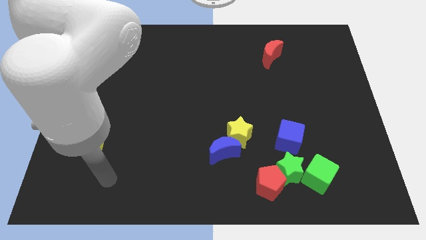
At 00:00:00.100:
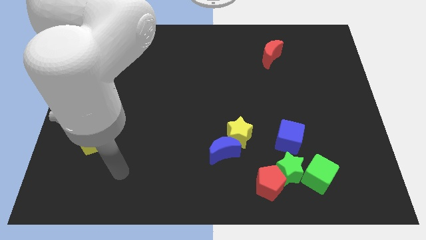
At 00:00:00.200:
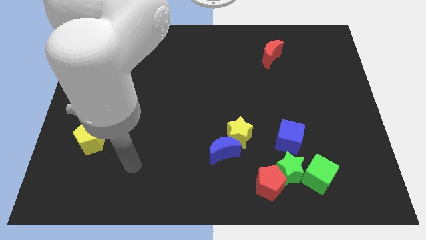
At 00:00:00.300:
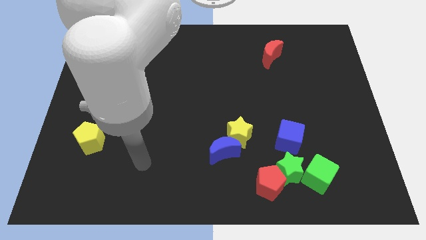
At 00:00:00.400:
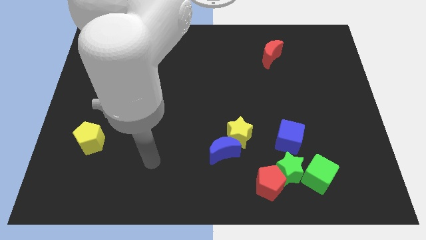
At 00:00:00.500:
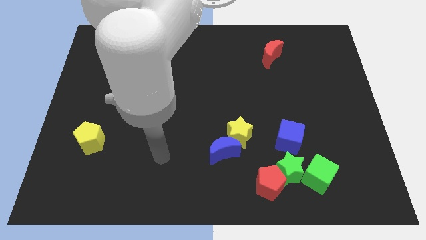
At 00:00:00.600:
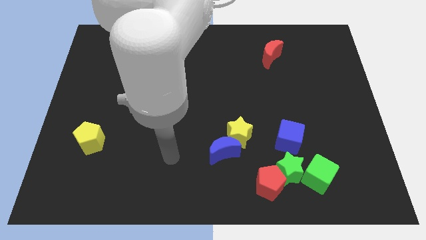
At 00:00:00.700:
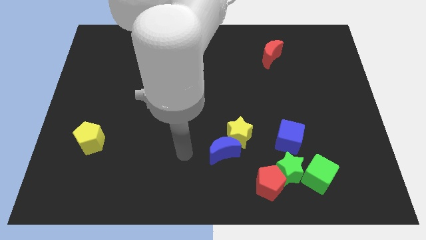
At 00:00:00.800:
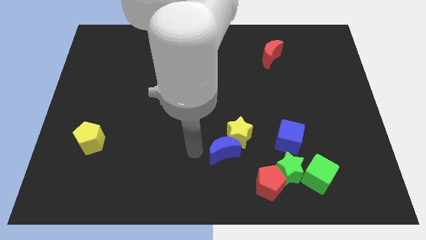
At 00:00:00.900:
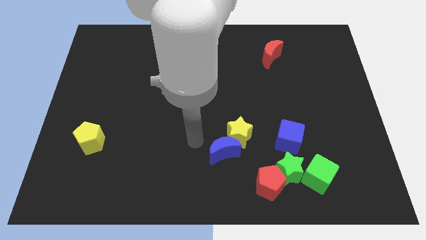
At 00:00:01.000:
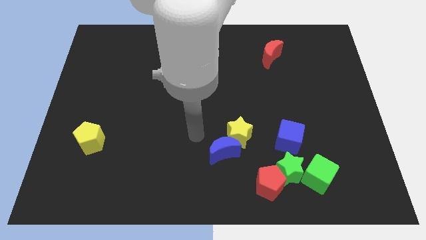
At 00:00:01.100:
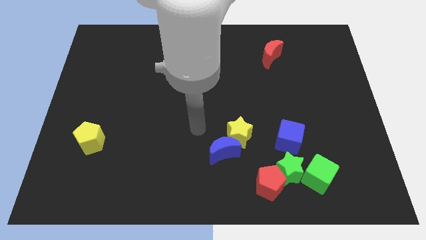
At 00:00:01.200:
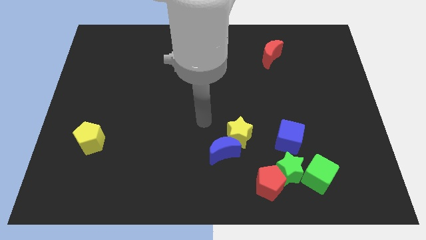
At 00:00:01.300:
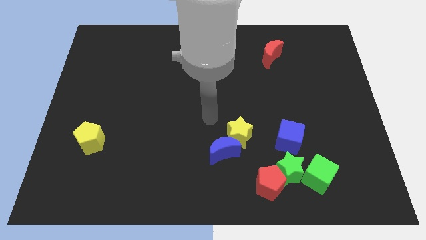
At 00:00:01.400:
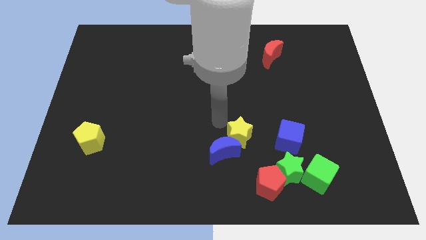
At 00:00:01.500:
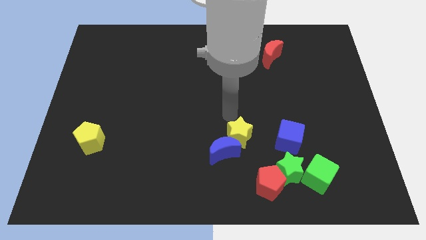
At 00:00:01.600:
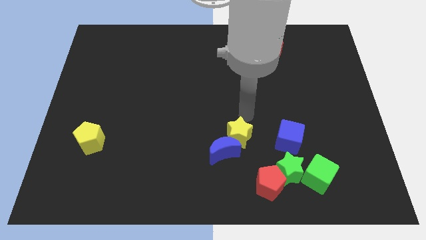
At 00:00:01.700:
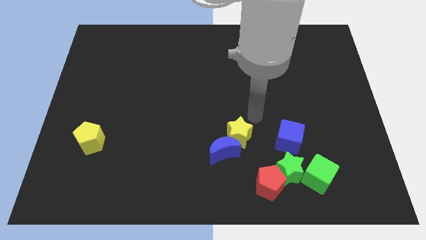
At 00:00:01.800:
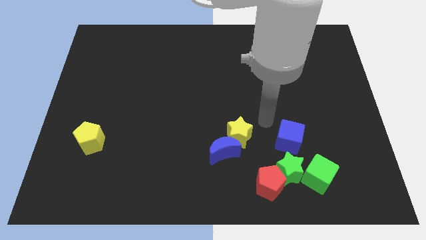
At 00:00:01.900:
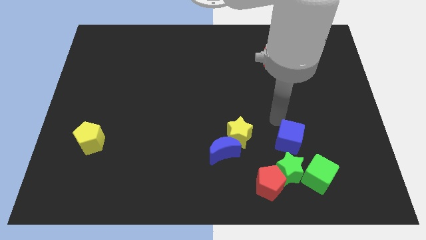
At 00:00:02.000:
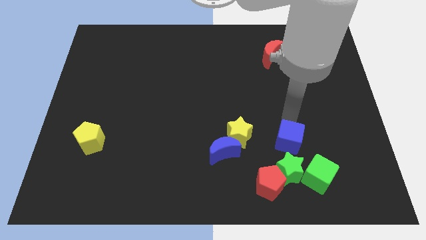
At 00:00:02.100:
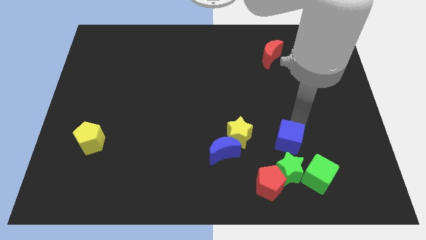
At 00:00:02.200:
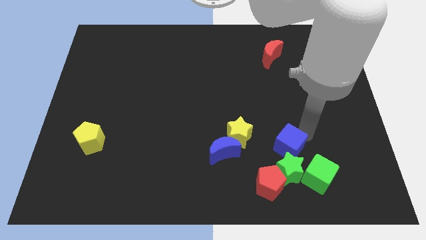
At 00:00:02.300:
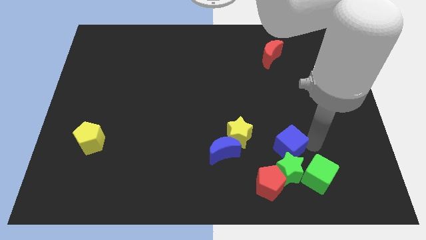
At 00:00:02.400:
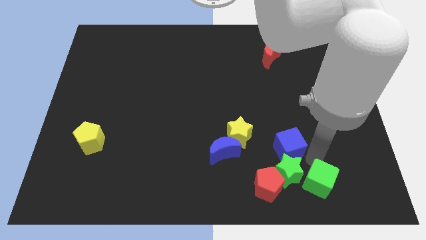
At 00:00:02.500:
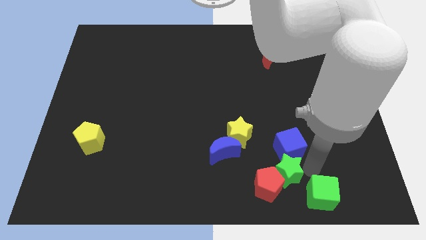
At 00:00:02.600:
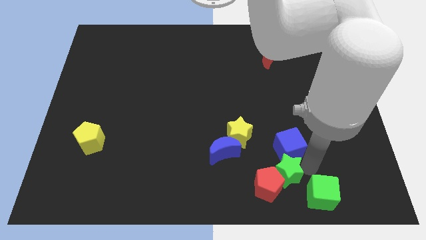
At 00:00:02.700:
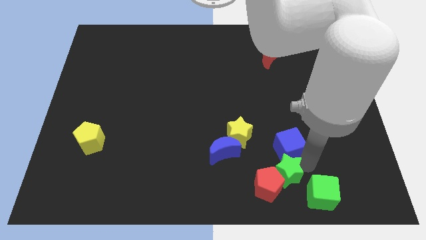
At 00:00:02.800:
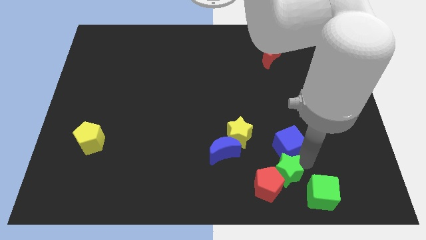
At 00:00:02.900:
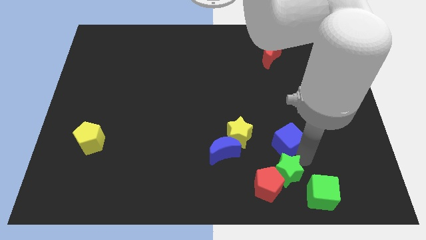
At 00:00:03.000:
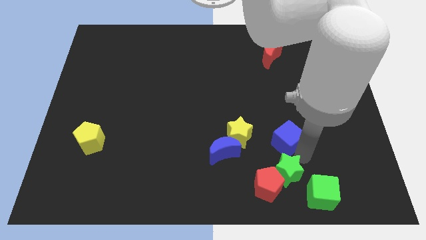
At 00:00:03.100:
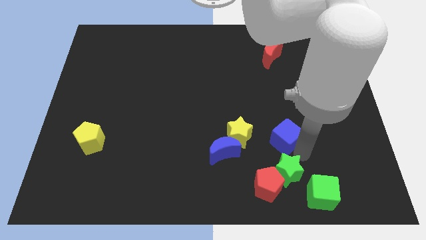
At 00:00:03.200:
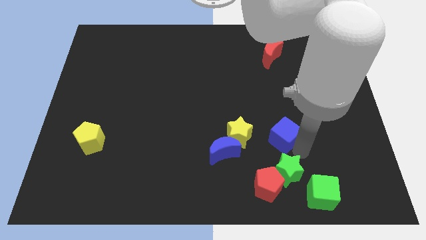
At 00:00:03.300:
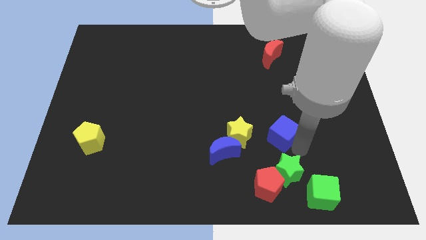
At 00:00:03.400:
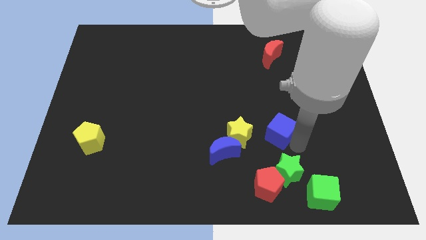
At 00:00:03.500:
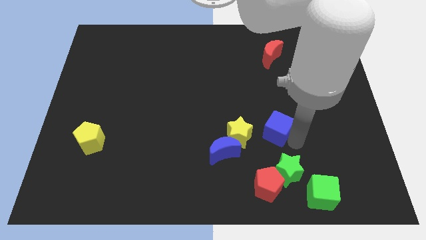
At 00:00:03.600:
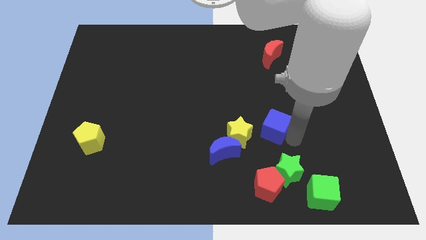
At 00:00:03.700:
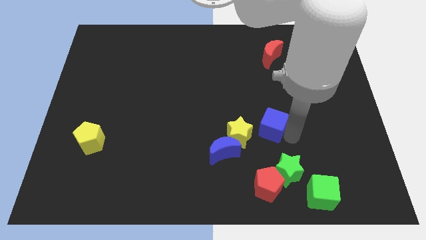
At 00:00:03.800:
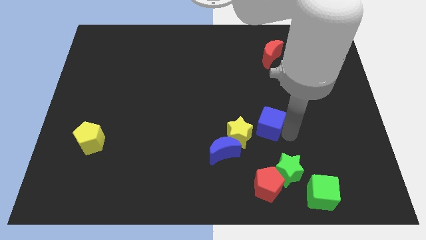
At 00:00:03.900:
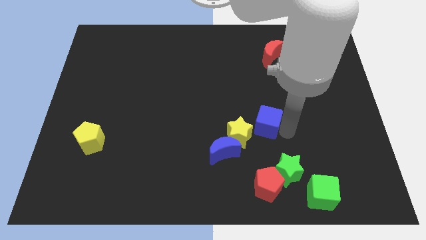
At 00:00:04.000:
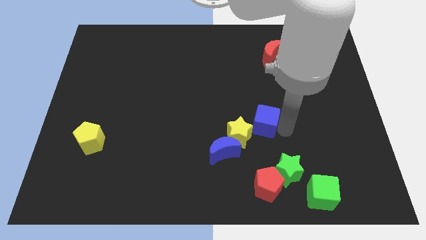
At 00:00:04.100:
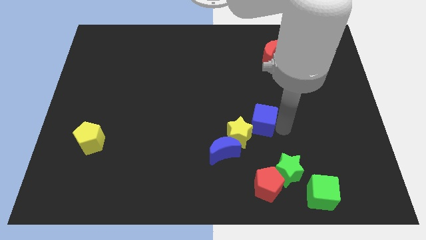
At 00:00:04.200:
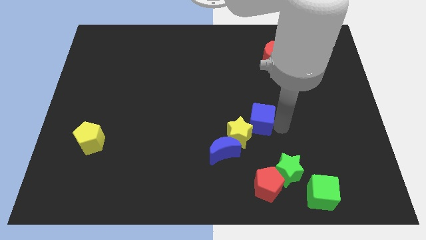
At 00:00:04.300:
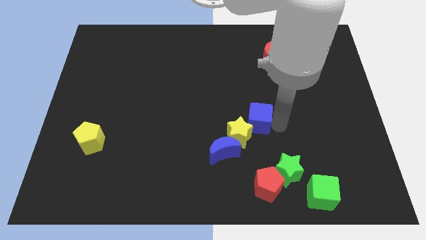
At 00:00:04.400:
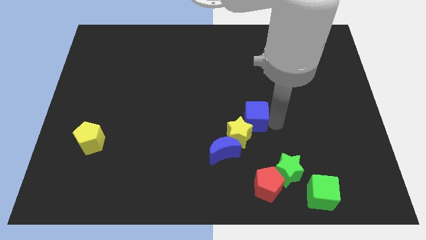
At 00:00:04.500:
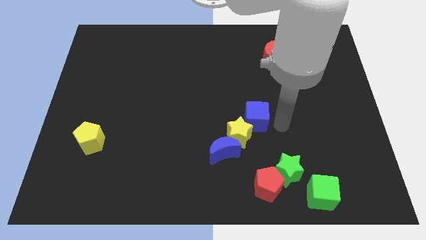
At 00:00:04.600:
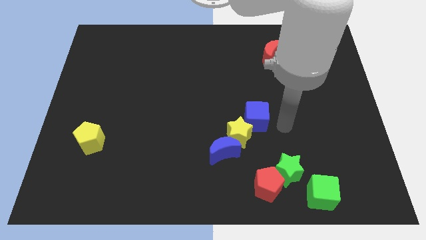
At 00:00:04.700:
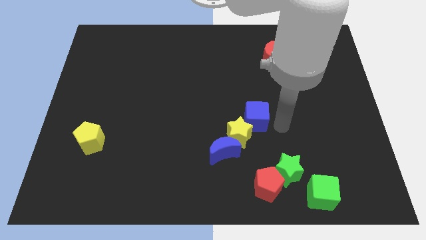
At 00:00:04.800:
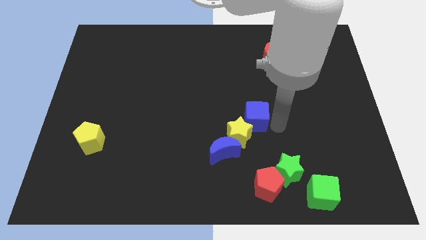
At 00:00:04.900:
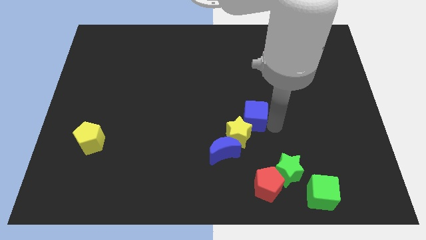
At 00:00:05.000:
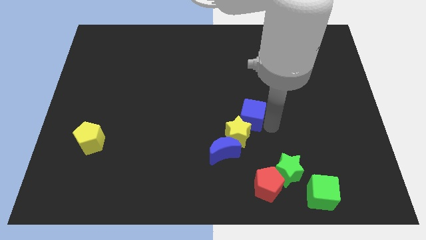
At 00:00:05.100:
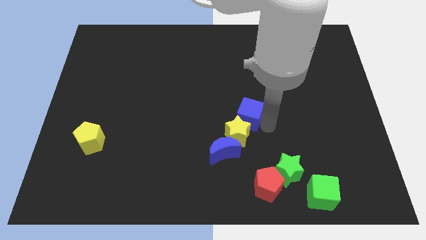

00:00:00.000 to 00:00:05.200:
slide the blue cube left a little bit

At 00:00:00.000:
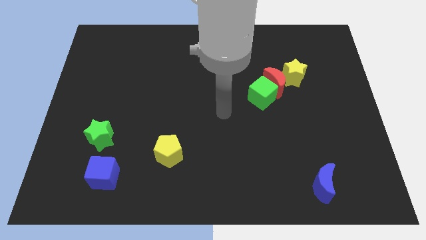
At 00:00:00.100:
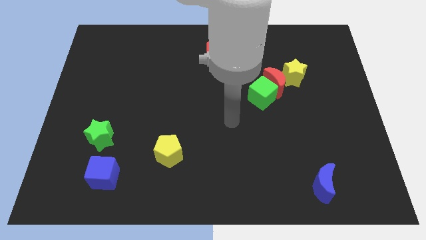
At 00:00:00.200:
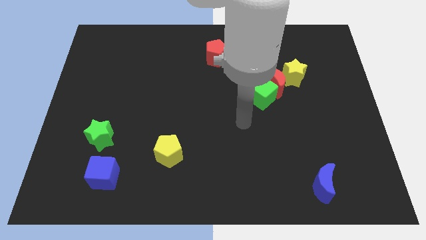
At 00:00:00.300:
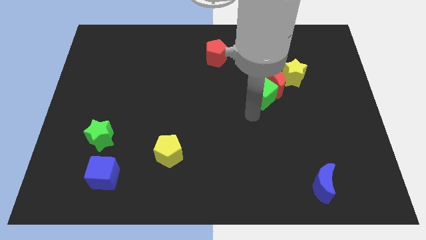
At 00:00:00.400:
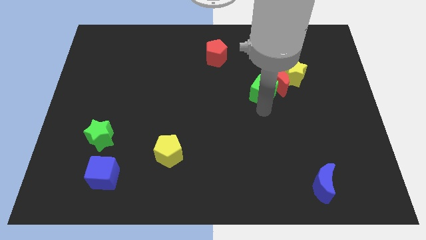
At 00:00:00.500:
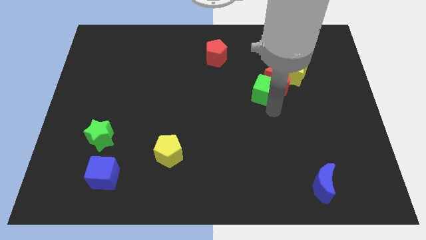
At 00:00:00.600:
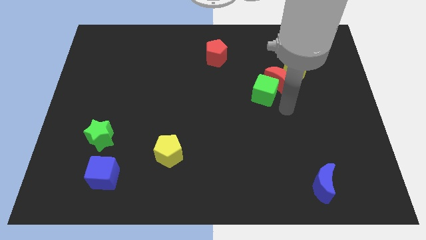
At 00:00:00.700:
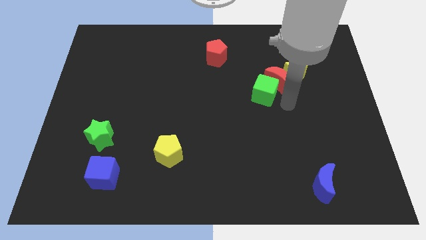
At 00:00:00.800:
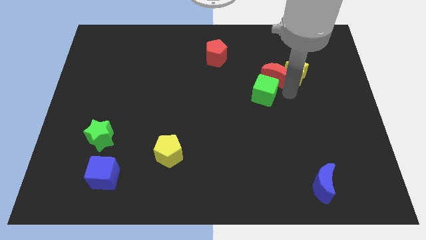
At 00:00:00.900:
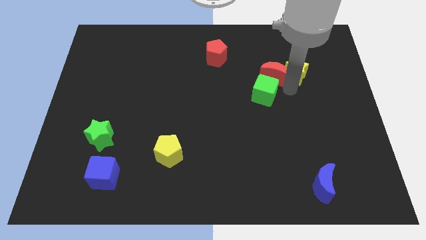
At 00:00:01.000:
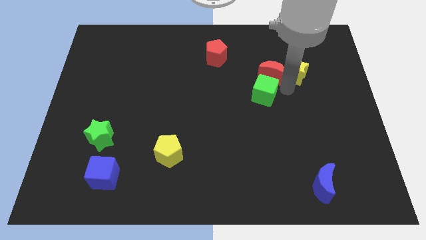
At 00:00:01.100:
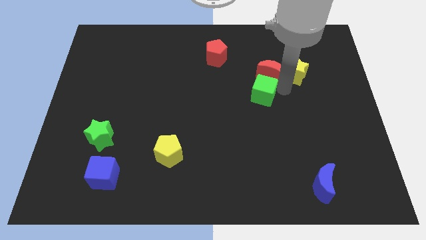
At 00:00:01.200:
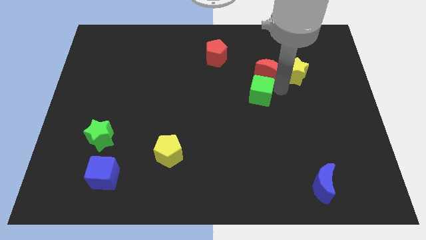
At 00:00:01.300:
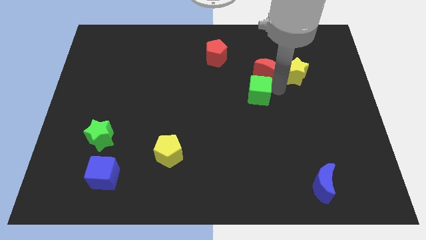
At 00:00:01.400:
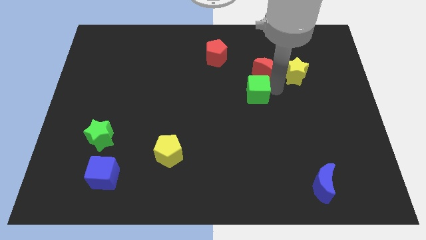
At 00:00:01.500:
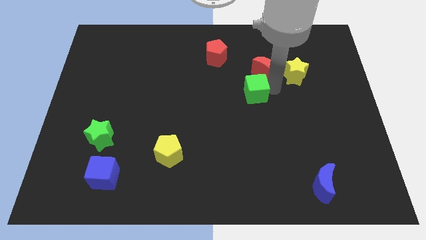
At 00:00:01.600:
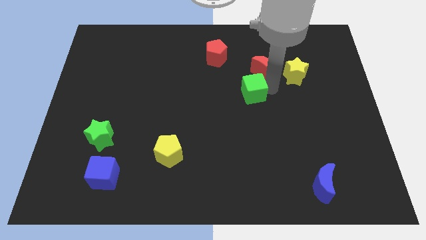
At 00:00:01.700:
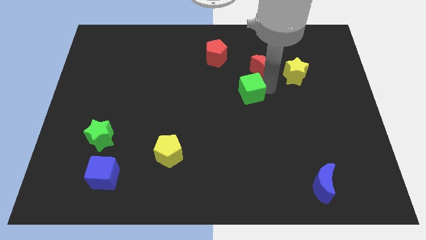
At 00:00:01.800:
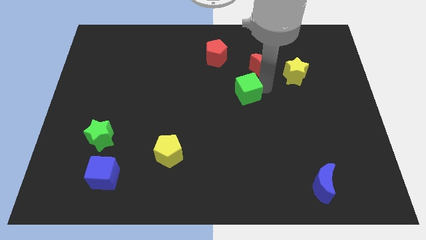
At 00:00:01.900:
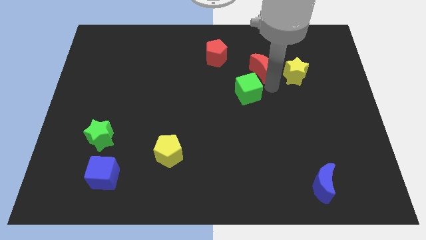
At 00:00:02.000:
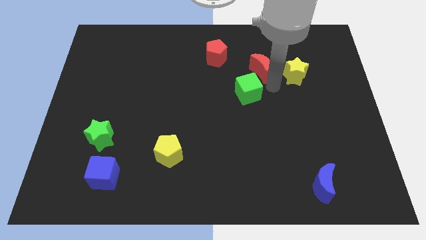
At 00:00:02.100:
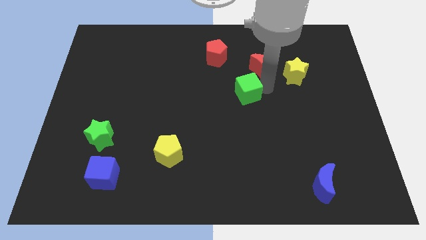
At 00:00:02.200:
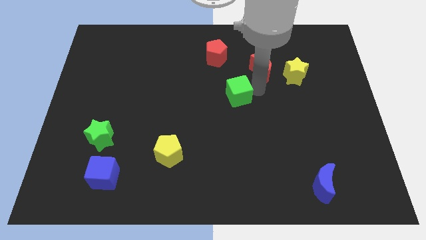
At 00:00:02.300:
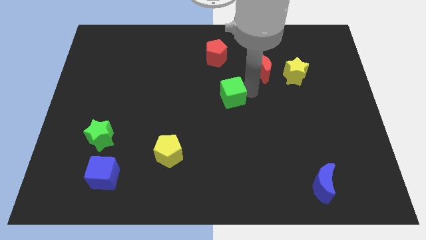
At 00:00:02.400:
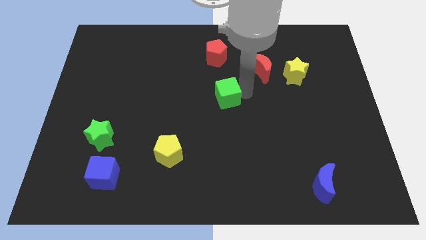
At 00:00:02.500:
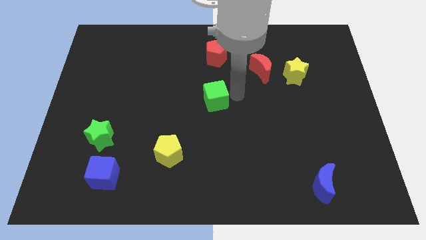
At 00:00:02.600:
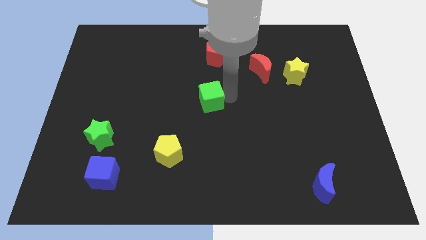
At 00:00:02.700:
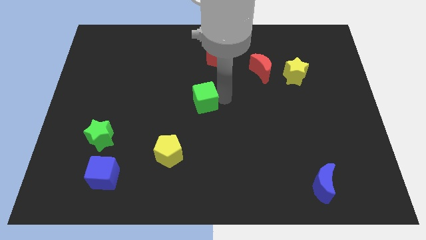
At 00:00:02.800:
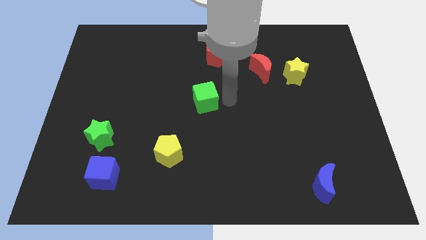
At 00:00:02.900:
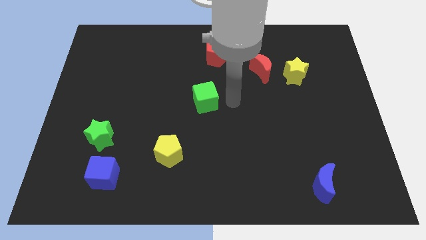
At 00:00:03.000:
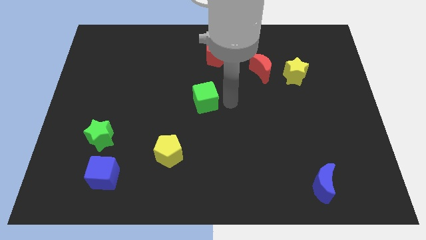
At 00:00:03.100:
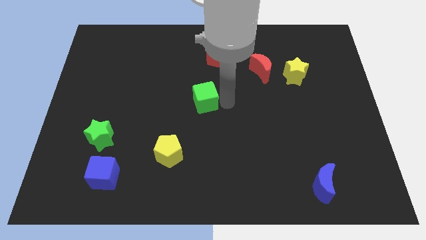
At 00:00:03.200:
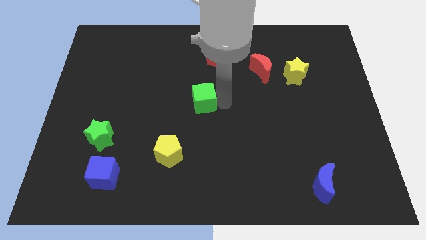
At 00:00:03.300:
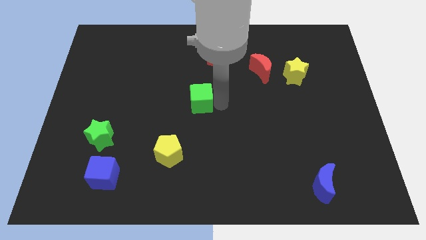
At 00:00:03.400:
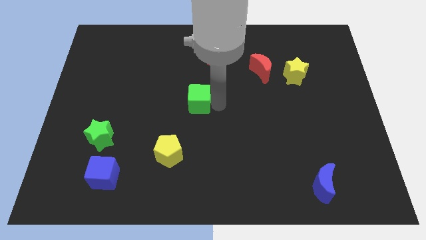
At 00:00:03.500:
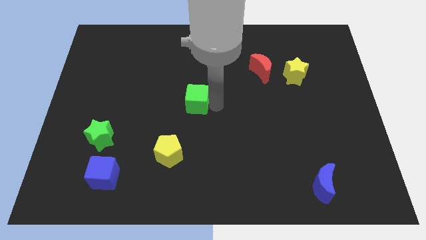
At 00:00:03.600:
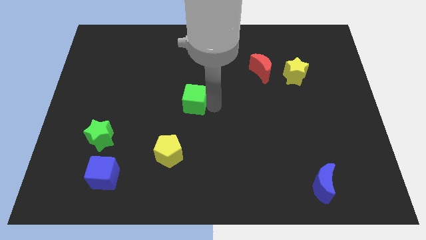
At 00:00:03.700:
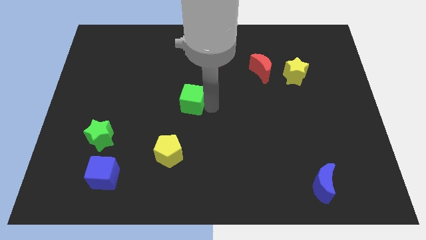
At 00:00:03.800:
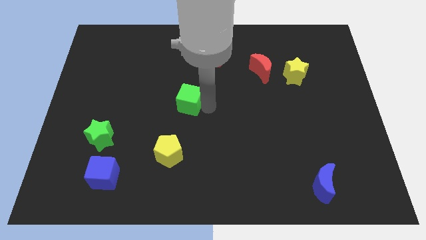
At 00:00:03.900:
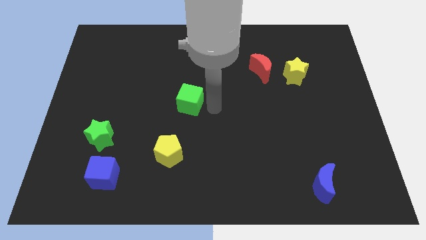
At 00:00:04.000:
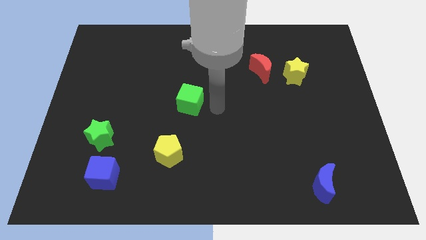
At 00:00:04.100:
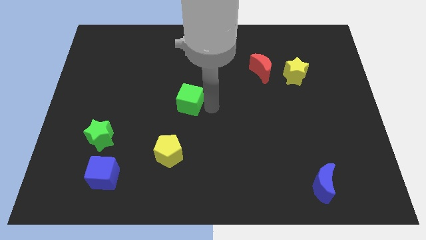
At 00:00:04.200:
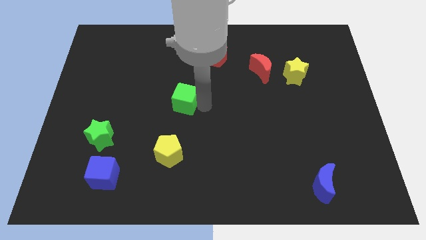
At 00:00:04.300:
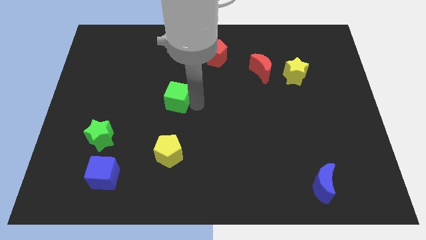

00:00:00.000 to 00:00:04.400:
move the green cube left
